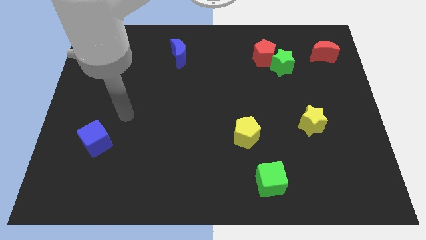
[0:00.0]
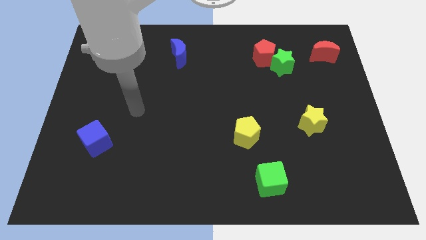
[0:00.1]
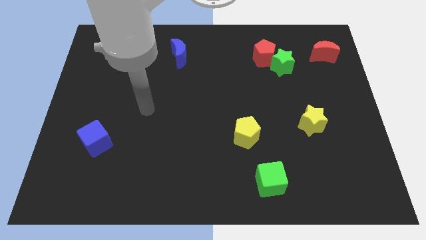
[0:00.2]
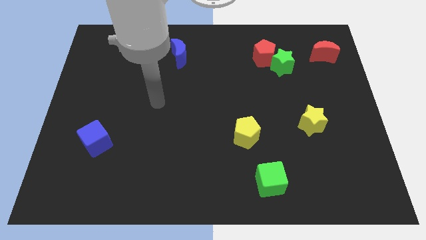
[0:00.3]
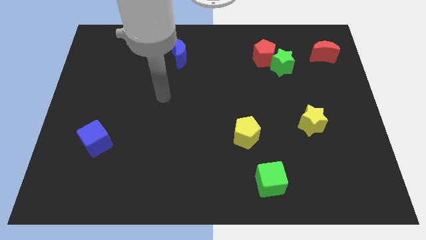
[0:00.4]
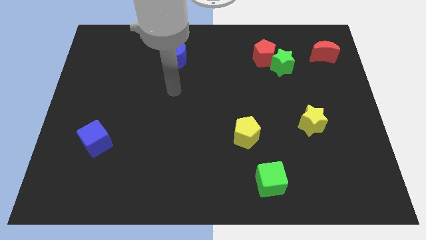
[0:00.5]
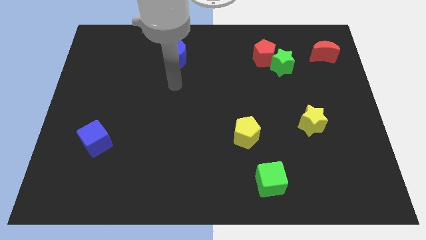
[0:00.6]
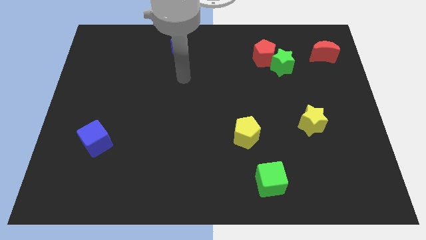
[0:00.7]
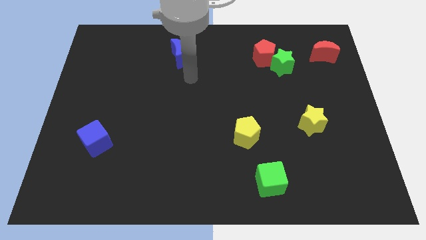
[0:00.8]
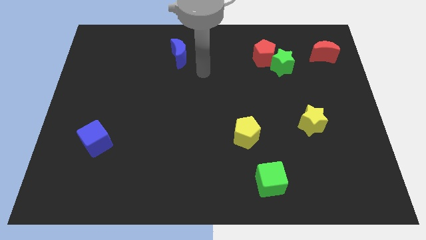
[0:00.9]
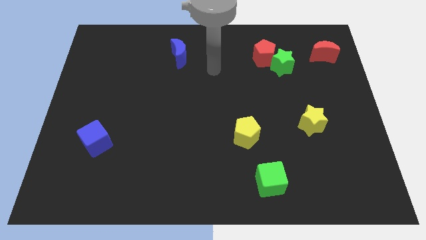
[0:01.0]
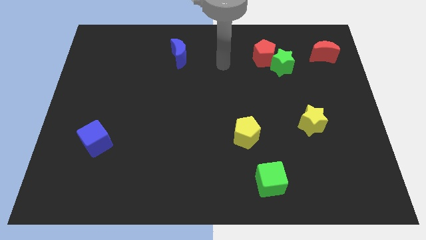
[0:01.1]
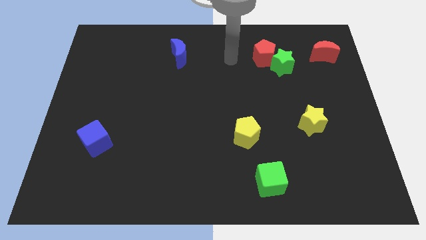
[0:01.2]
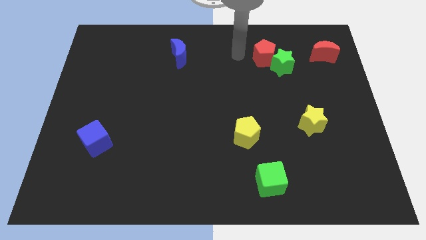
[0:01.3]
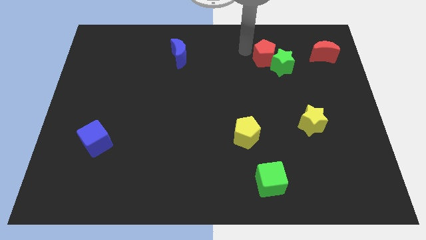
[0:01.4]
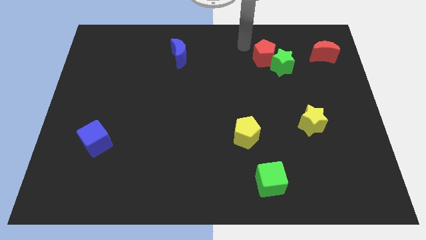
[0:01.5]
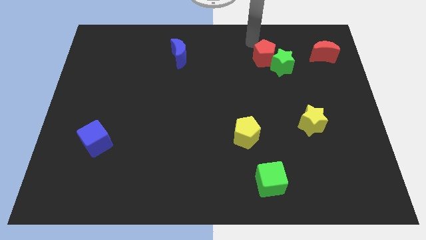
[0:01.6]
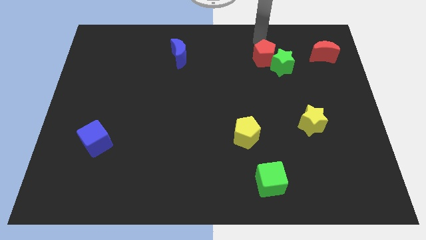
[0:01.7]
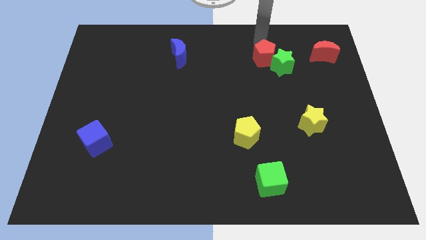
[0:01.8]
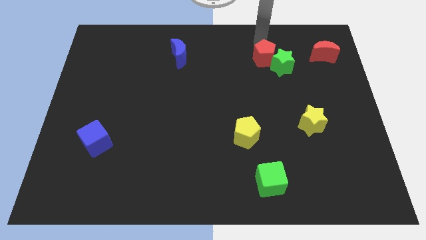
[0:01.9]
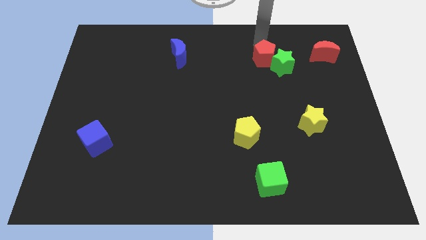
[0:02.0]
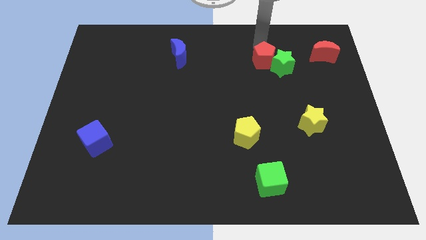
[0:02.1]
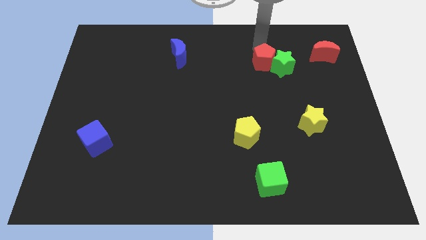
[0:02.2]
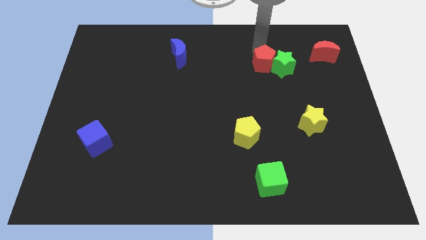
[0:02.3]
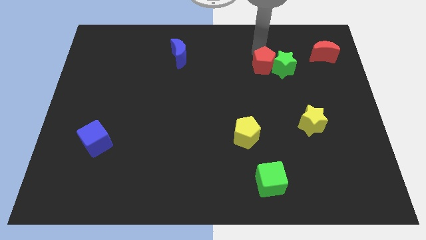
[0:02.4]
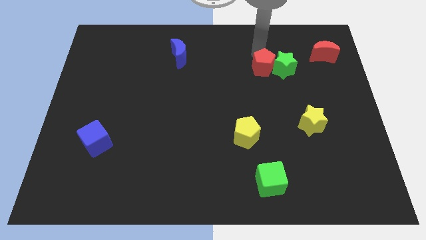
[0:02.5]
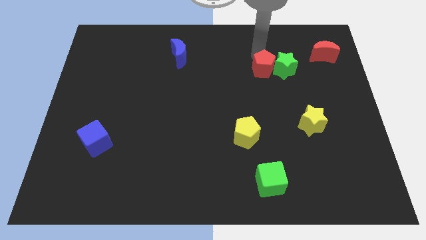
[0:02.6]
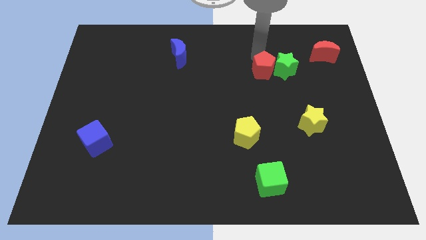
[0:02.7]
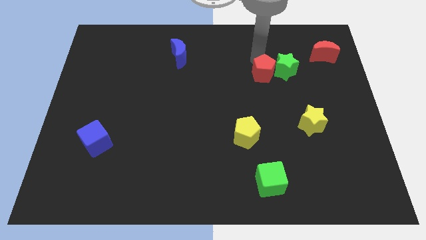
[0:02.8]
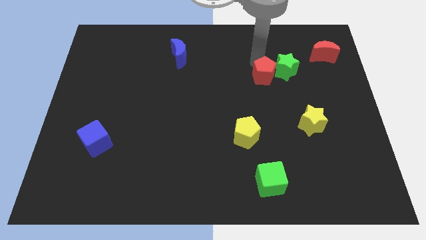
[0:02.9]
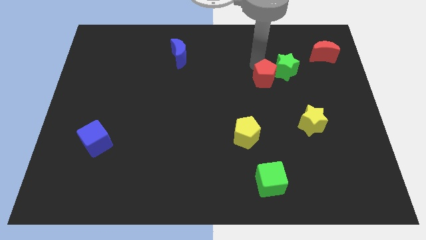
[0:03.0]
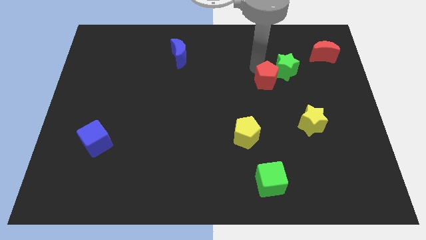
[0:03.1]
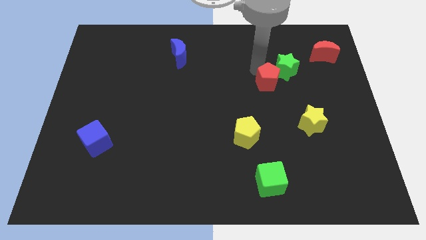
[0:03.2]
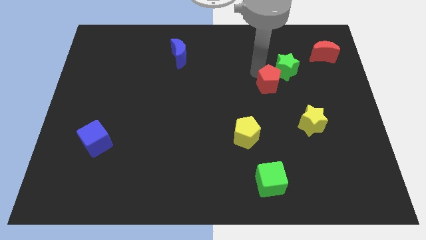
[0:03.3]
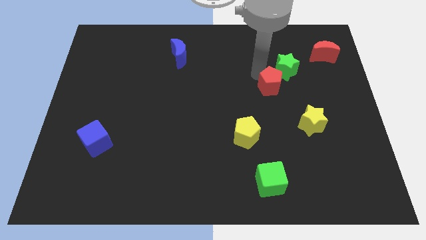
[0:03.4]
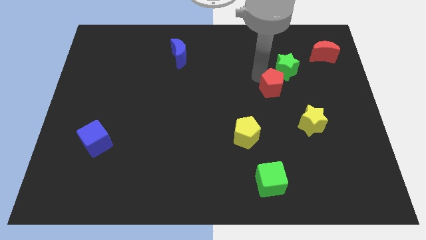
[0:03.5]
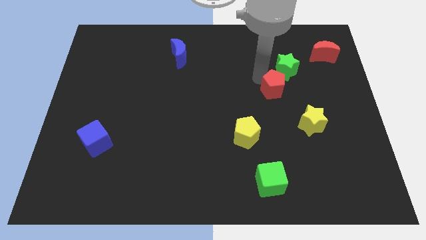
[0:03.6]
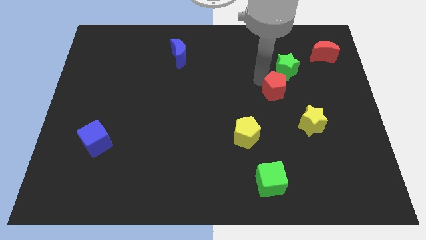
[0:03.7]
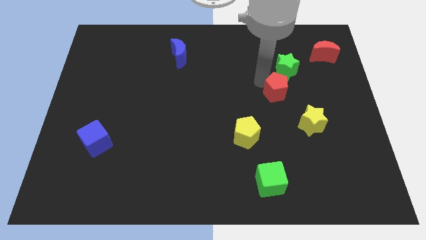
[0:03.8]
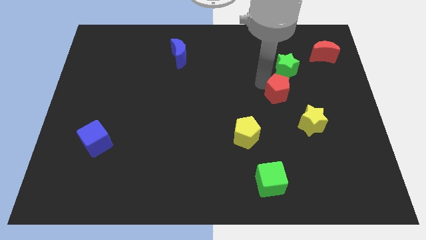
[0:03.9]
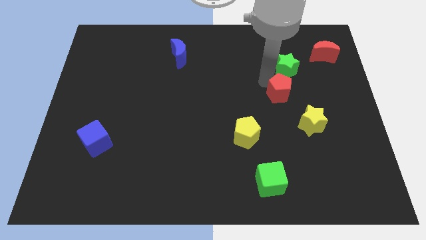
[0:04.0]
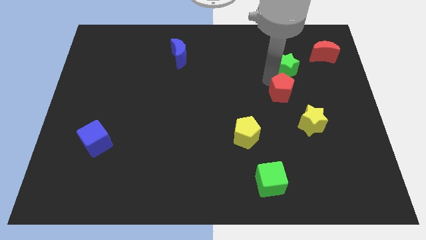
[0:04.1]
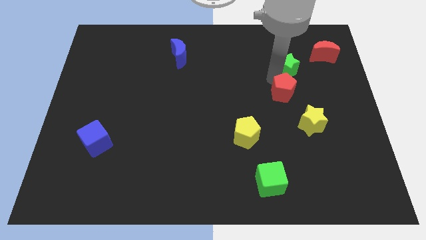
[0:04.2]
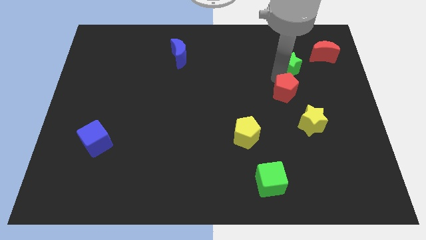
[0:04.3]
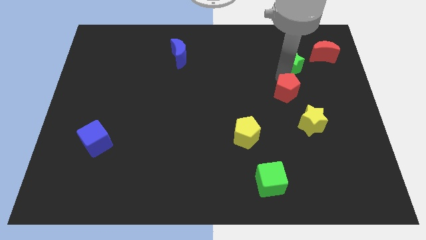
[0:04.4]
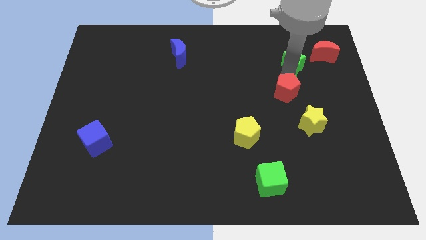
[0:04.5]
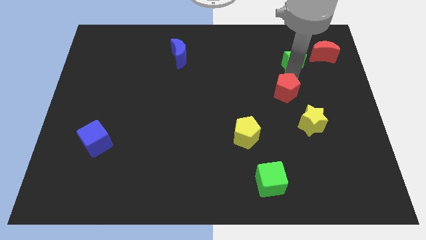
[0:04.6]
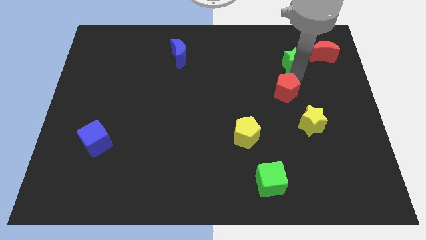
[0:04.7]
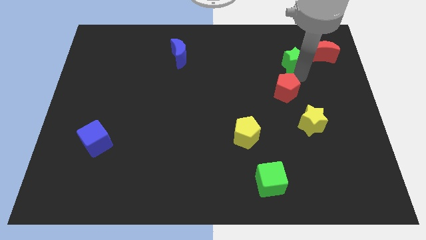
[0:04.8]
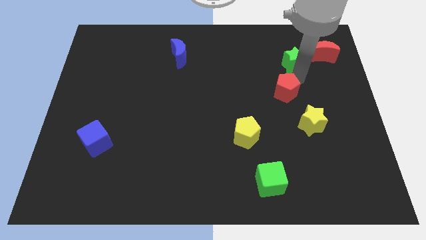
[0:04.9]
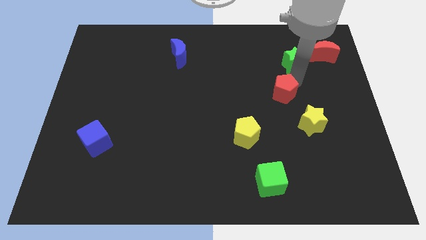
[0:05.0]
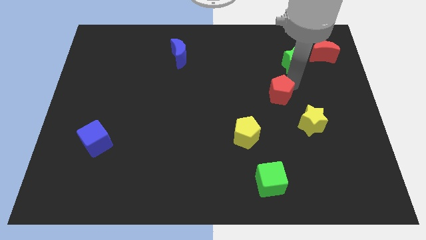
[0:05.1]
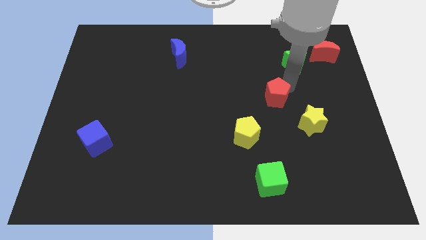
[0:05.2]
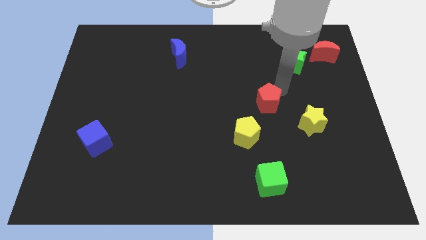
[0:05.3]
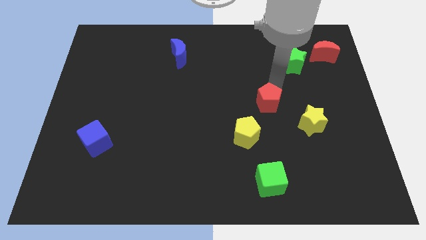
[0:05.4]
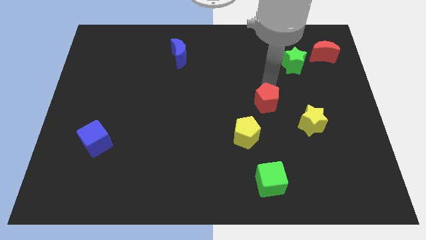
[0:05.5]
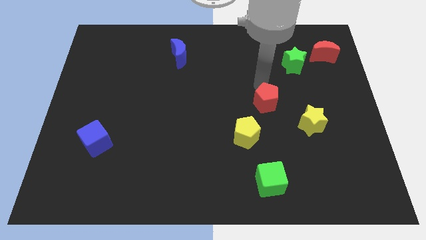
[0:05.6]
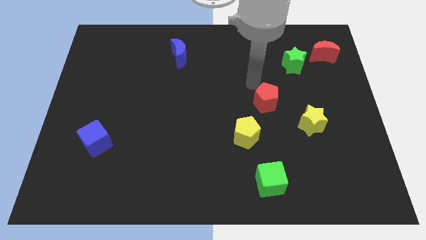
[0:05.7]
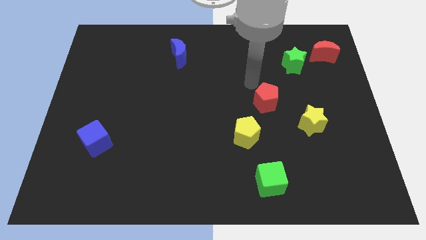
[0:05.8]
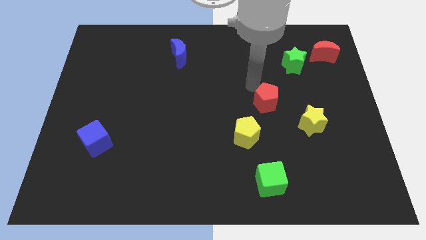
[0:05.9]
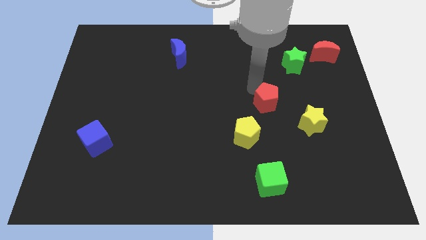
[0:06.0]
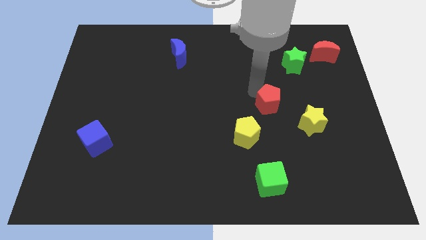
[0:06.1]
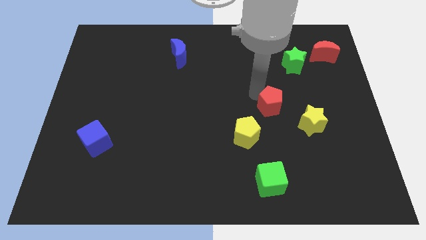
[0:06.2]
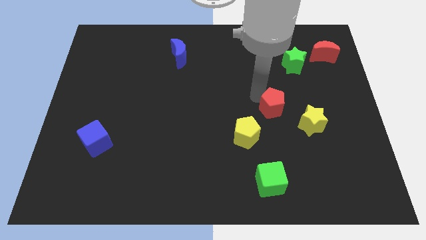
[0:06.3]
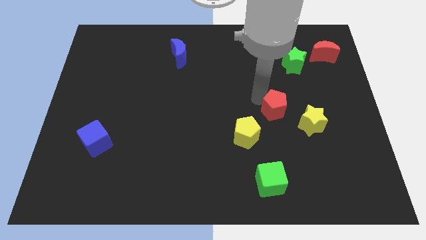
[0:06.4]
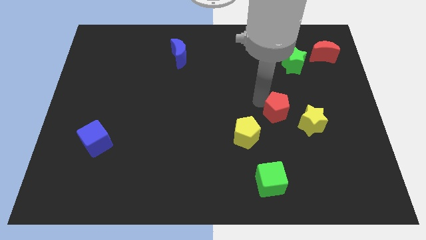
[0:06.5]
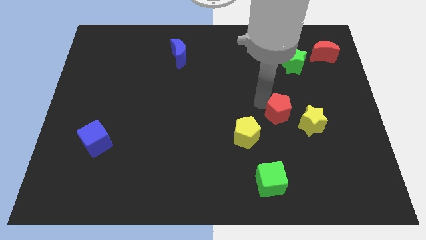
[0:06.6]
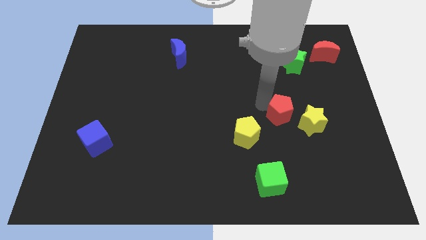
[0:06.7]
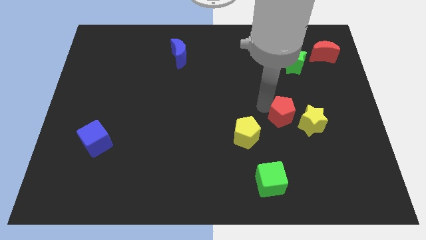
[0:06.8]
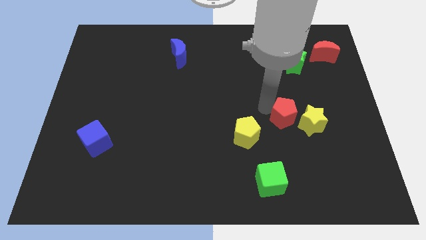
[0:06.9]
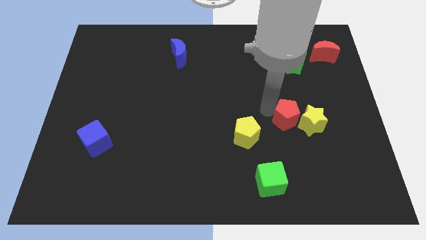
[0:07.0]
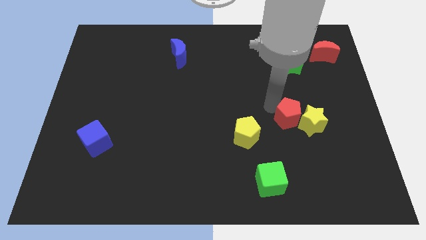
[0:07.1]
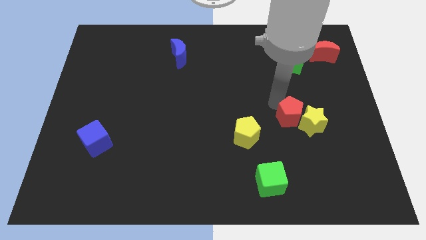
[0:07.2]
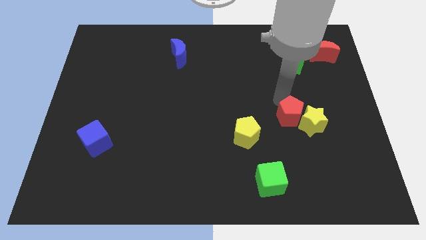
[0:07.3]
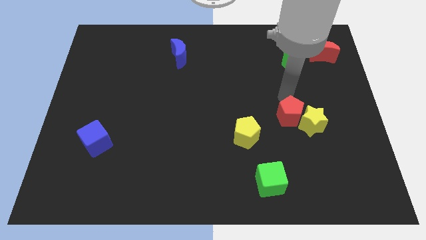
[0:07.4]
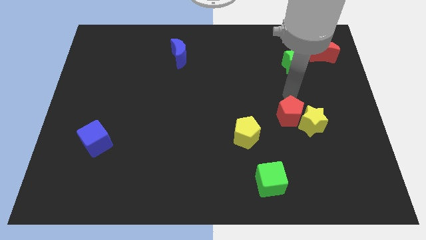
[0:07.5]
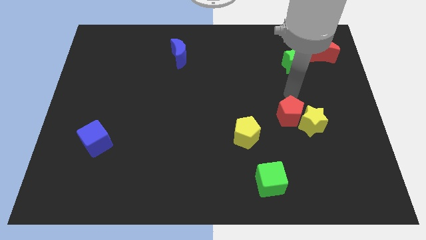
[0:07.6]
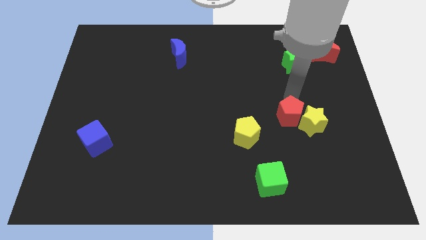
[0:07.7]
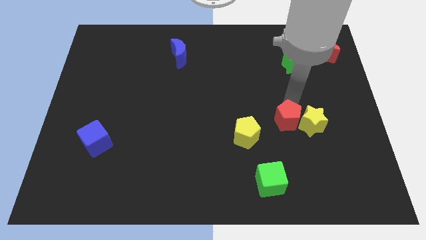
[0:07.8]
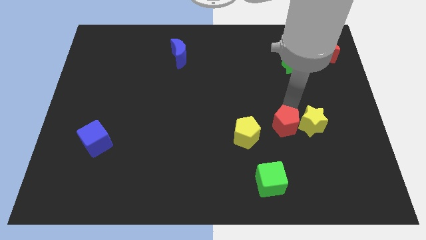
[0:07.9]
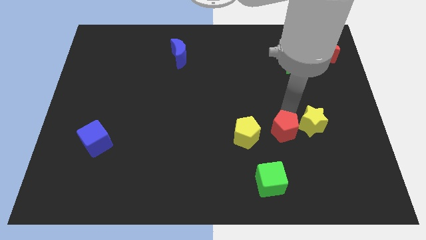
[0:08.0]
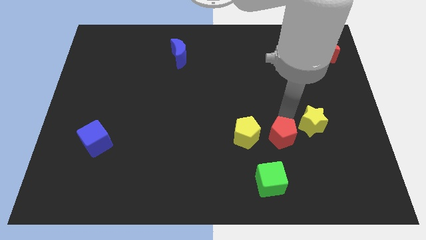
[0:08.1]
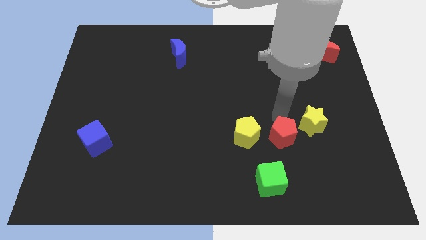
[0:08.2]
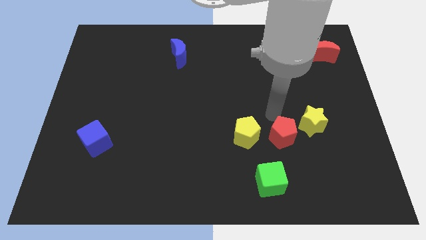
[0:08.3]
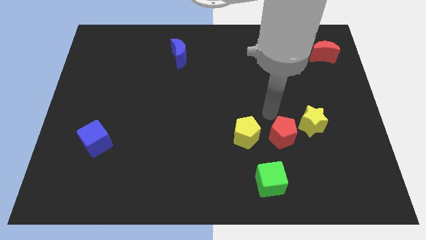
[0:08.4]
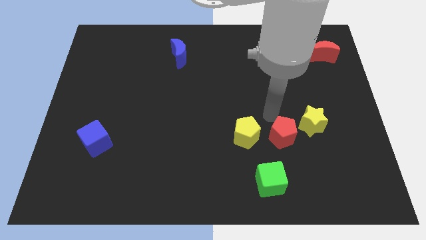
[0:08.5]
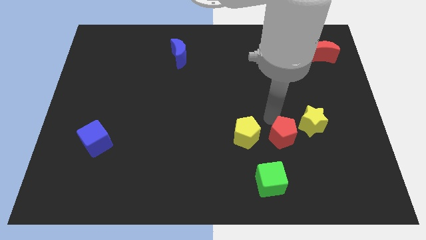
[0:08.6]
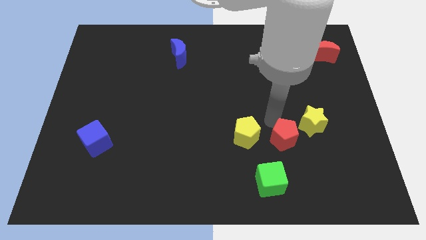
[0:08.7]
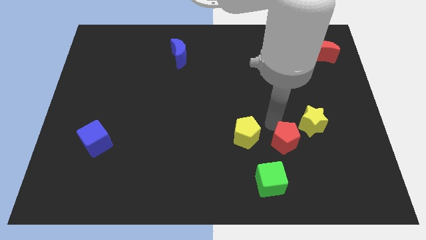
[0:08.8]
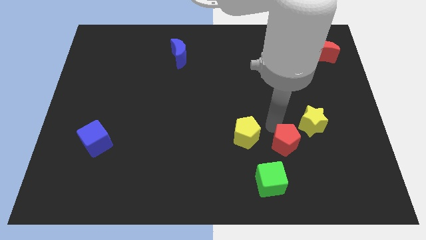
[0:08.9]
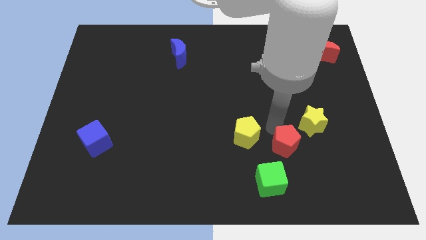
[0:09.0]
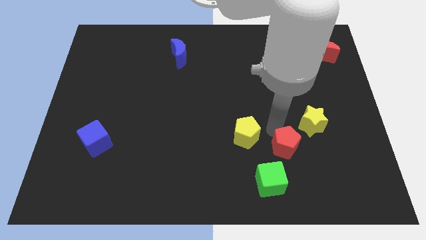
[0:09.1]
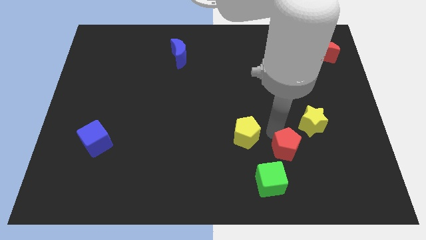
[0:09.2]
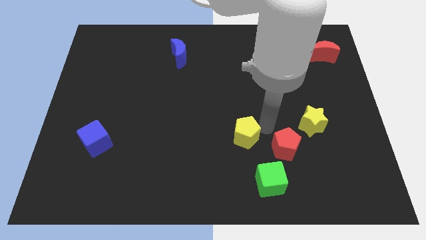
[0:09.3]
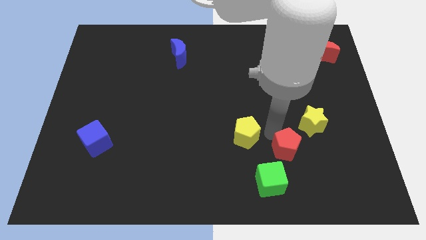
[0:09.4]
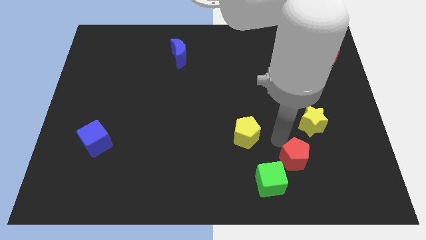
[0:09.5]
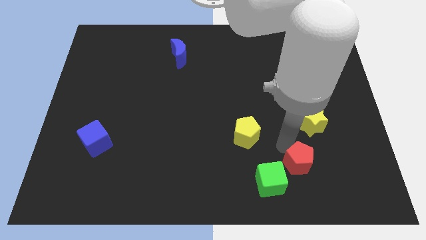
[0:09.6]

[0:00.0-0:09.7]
push the red pentagon to the right side of the green cube
